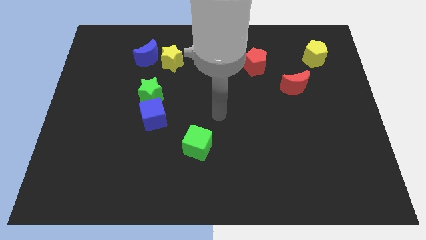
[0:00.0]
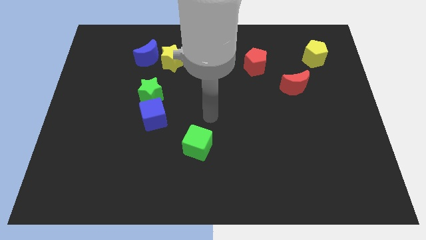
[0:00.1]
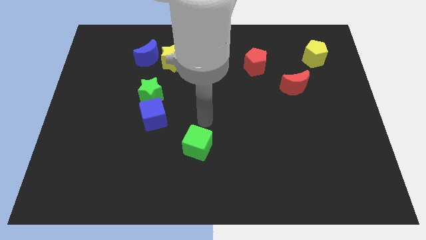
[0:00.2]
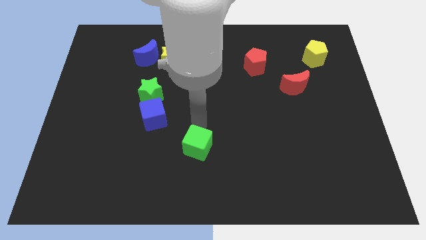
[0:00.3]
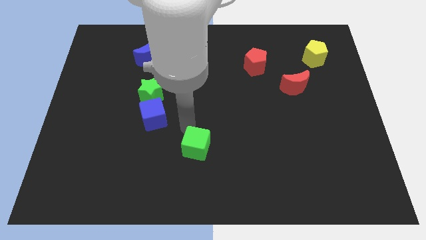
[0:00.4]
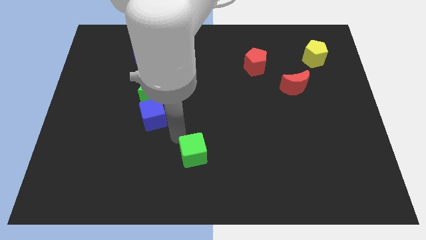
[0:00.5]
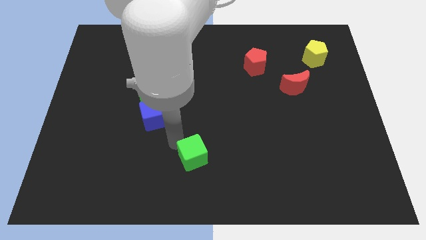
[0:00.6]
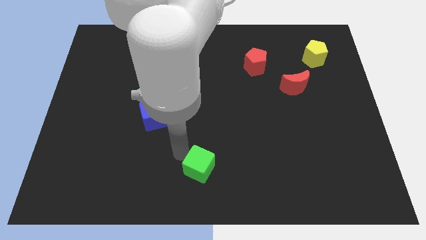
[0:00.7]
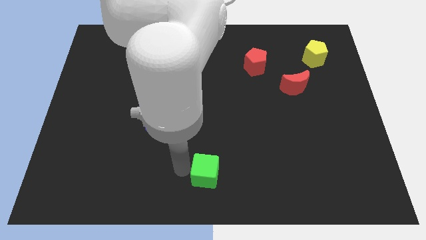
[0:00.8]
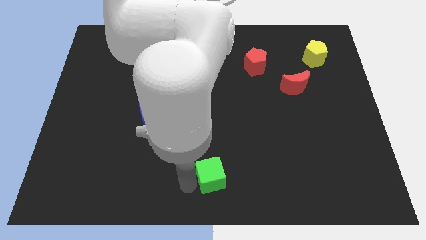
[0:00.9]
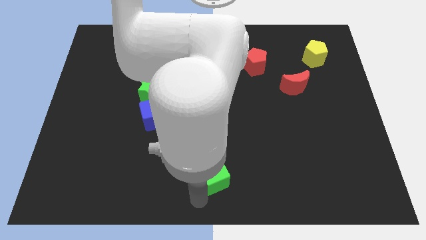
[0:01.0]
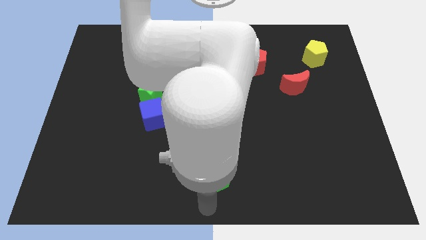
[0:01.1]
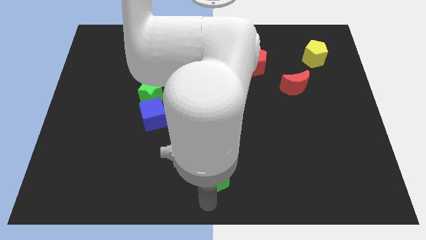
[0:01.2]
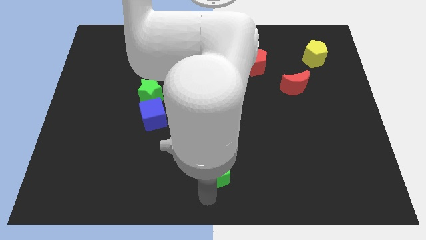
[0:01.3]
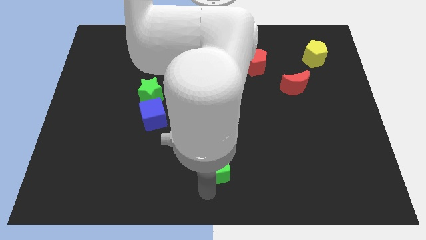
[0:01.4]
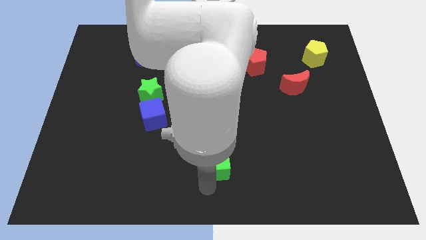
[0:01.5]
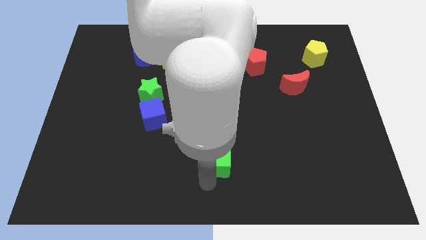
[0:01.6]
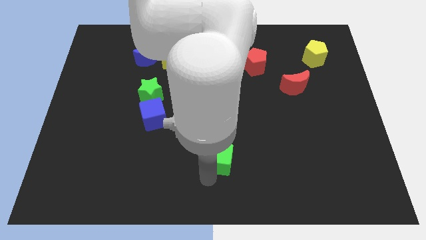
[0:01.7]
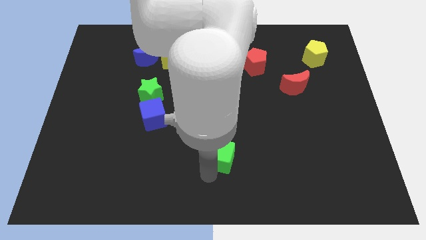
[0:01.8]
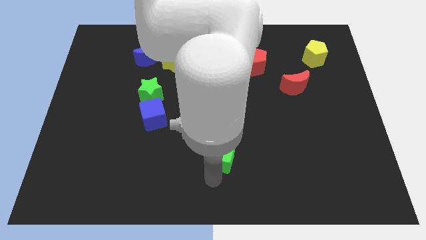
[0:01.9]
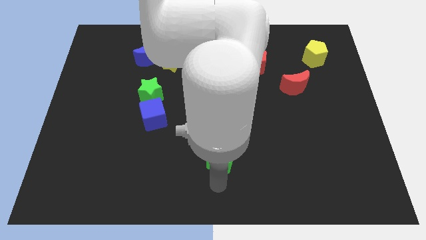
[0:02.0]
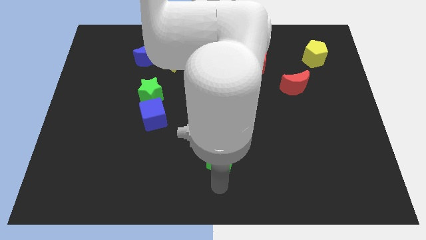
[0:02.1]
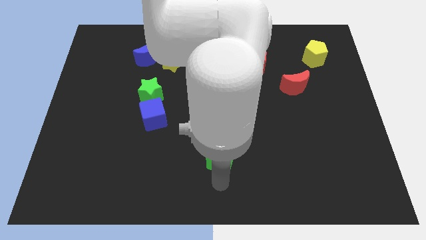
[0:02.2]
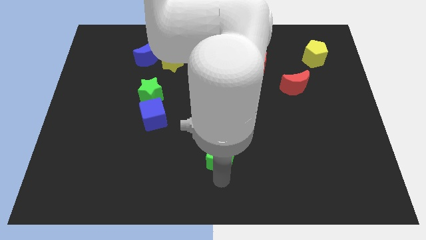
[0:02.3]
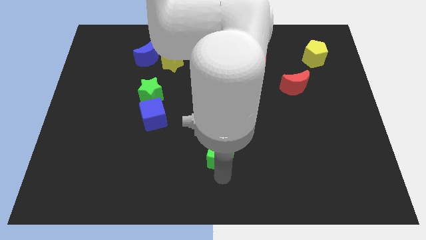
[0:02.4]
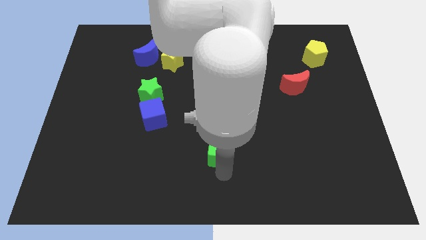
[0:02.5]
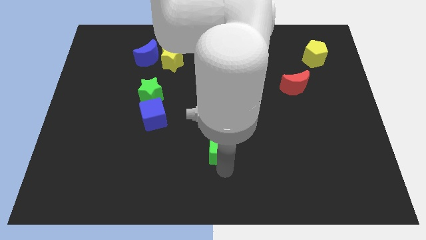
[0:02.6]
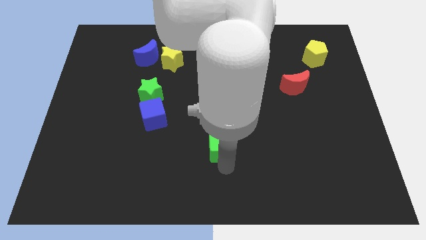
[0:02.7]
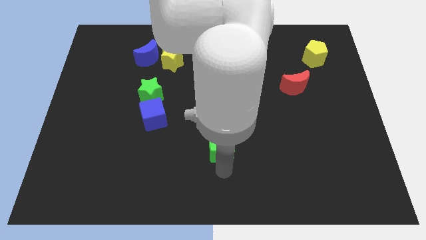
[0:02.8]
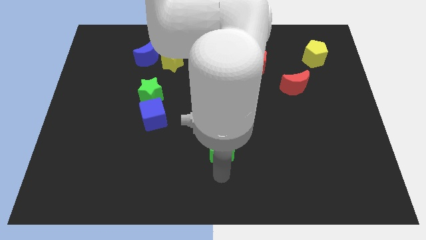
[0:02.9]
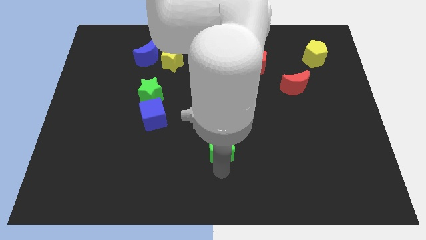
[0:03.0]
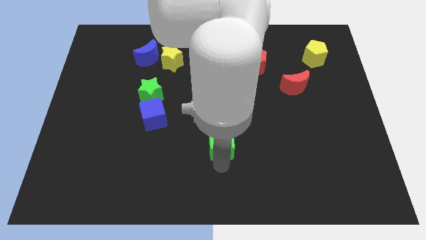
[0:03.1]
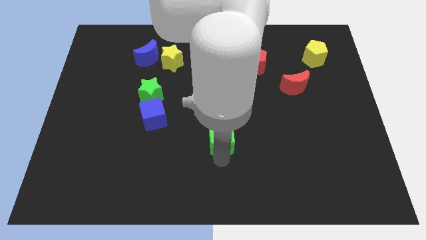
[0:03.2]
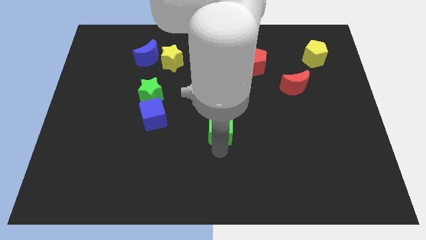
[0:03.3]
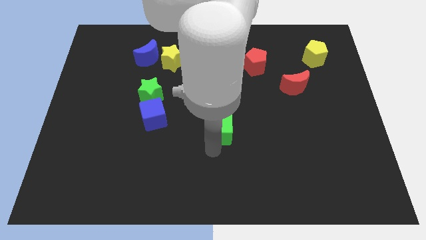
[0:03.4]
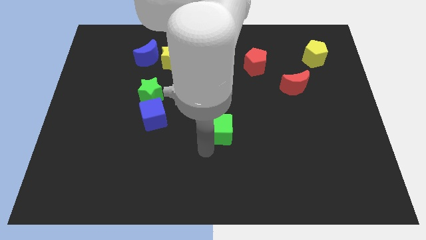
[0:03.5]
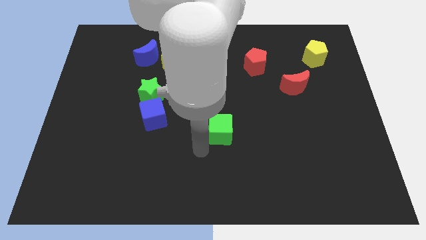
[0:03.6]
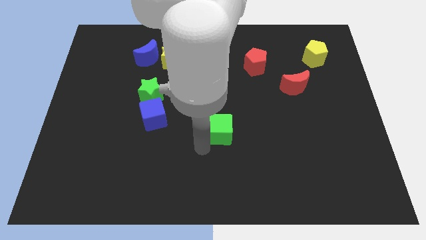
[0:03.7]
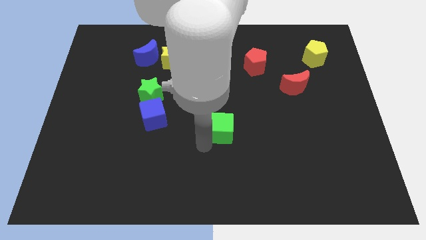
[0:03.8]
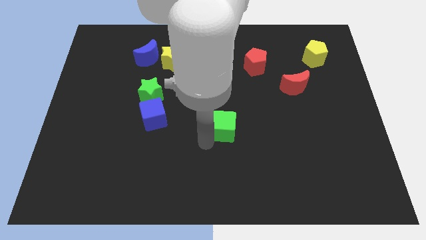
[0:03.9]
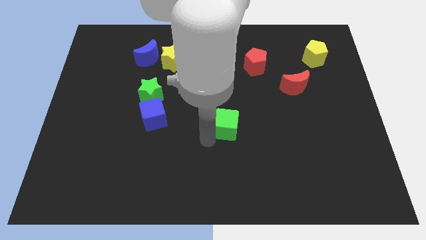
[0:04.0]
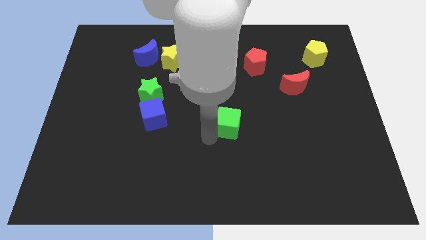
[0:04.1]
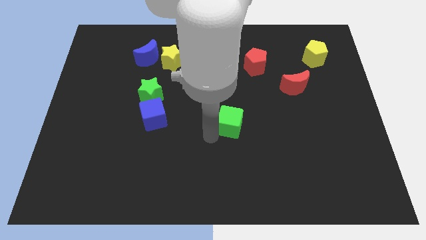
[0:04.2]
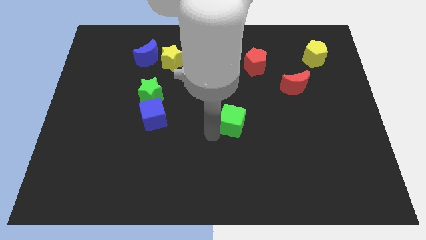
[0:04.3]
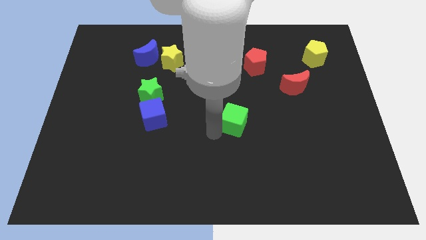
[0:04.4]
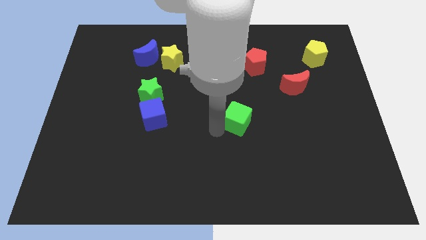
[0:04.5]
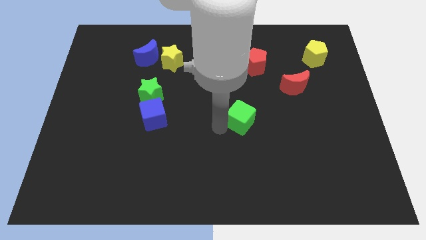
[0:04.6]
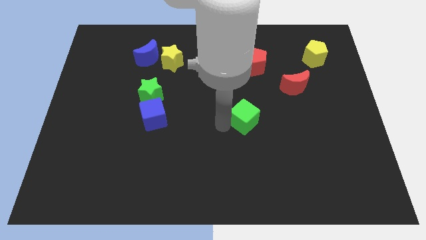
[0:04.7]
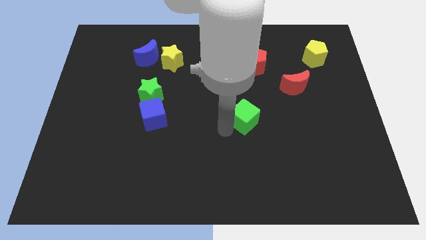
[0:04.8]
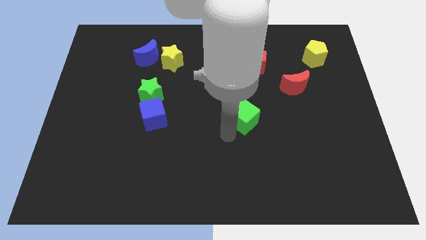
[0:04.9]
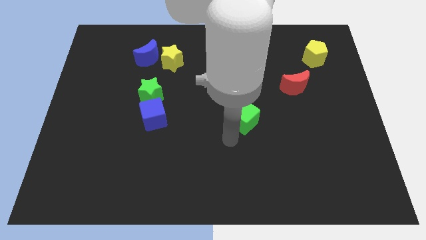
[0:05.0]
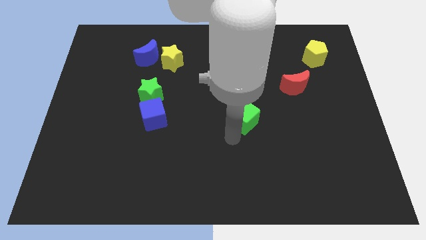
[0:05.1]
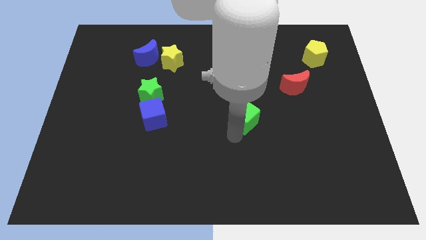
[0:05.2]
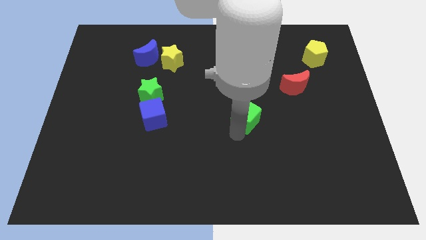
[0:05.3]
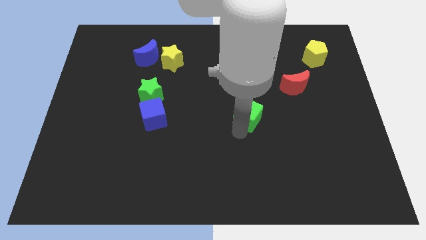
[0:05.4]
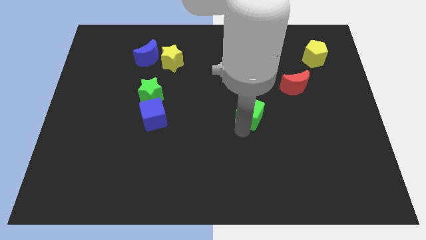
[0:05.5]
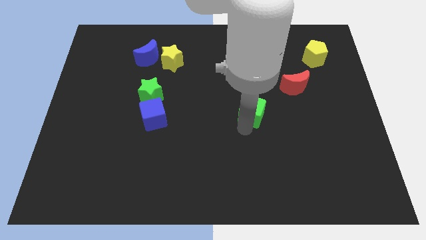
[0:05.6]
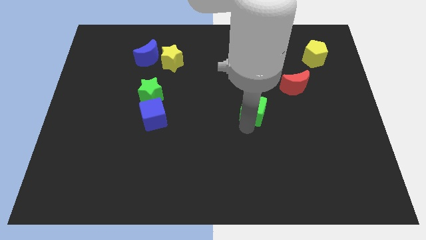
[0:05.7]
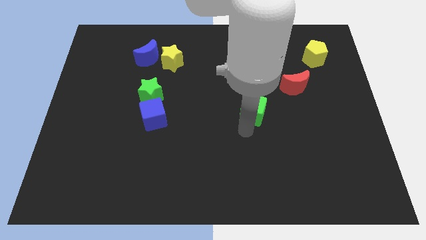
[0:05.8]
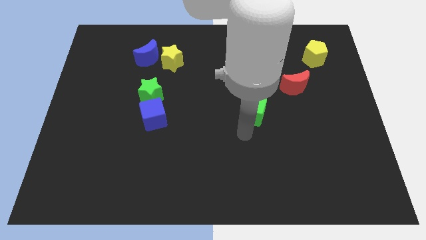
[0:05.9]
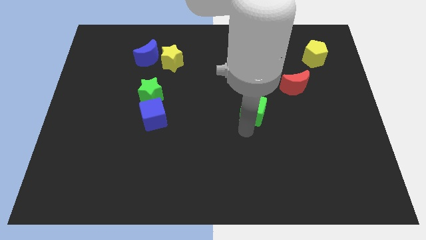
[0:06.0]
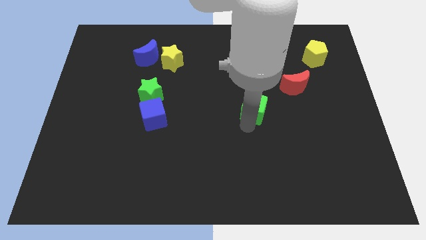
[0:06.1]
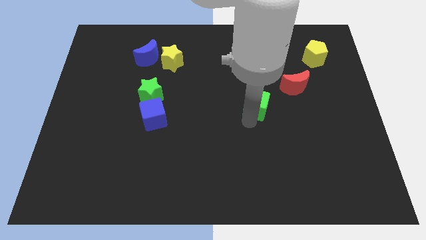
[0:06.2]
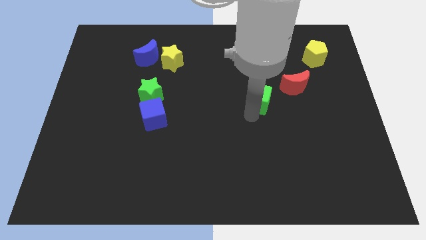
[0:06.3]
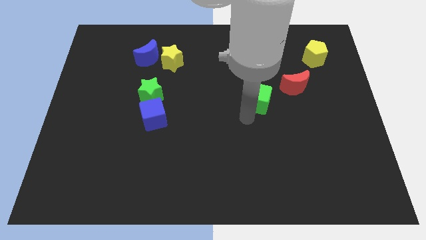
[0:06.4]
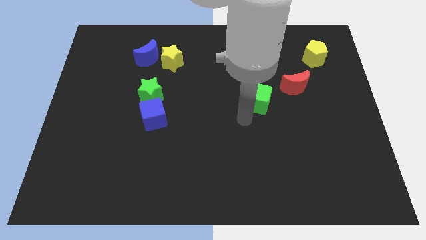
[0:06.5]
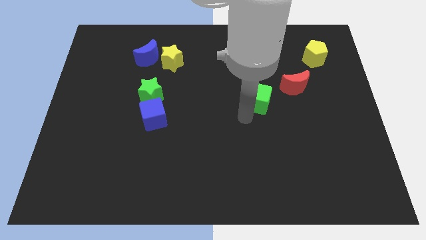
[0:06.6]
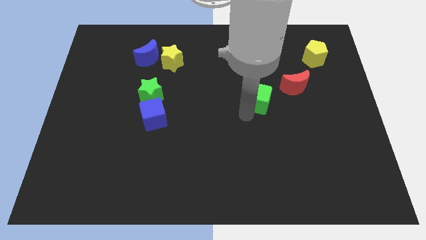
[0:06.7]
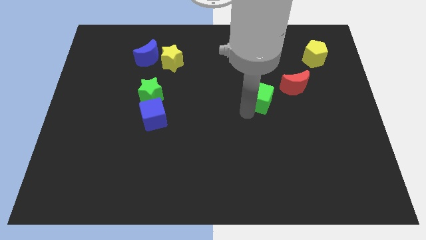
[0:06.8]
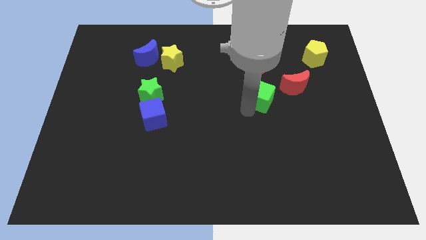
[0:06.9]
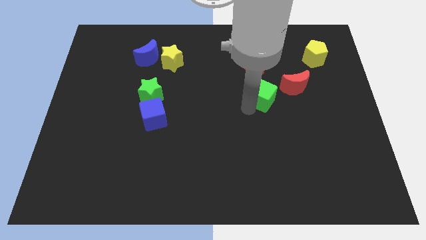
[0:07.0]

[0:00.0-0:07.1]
move the green cube up and to the right diagonally

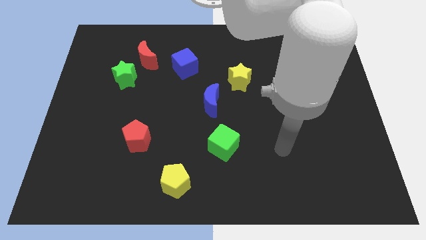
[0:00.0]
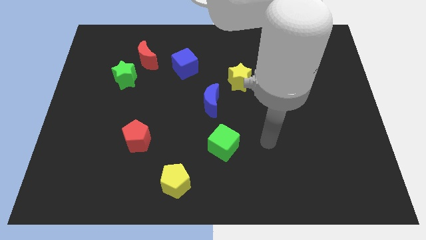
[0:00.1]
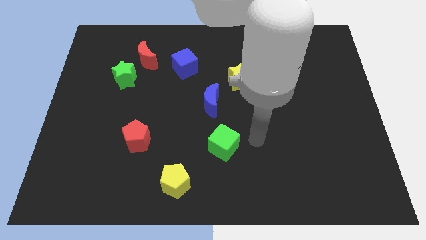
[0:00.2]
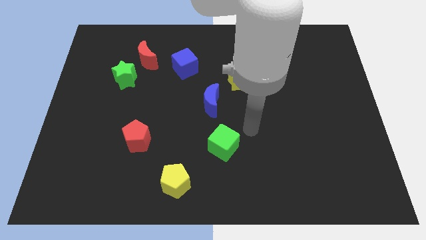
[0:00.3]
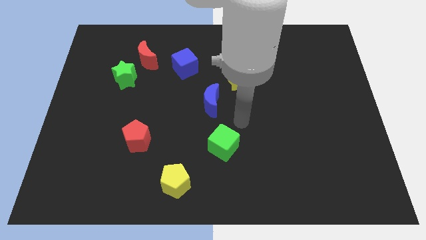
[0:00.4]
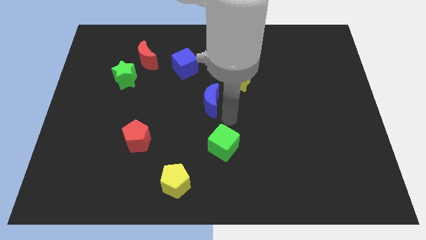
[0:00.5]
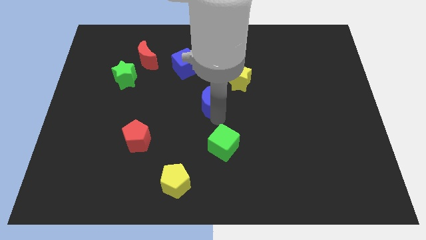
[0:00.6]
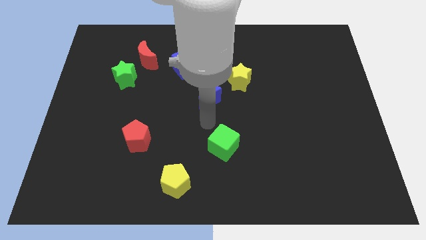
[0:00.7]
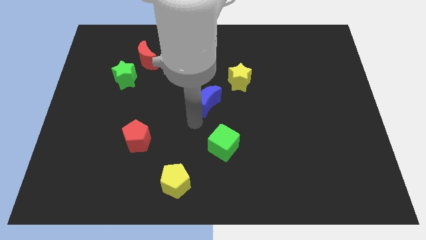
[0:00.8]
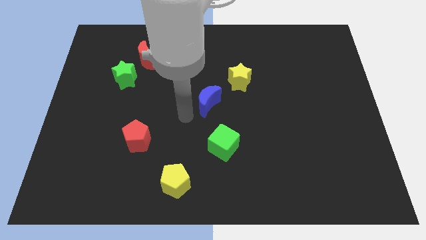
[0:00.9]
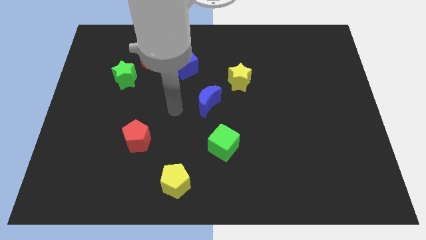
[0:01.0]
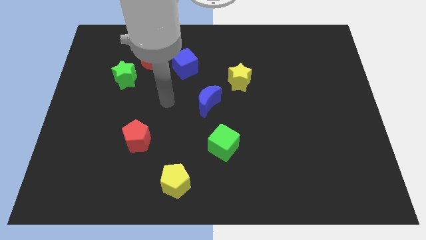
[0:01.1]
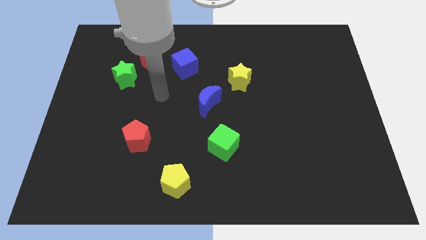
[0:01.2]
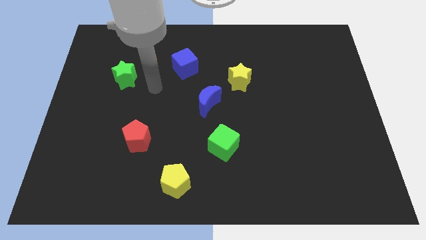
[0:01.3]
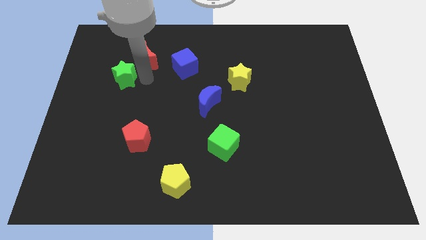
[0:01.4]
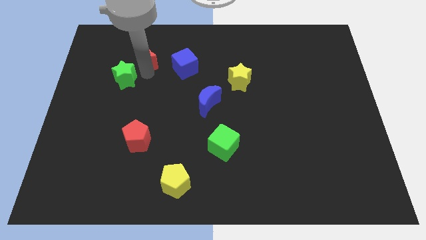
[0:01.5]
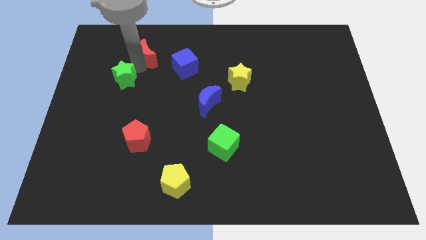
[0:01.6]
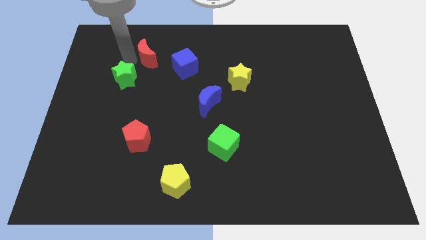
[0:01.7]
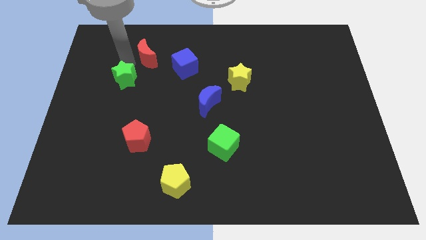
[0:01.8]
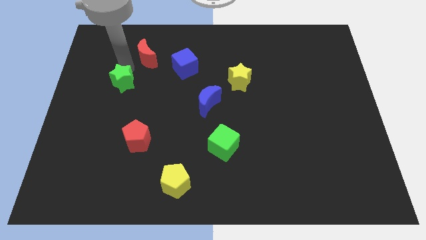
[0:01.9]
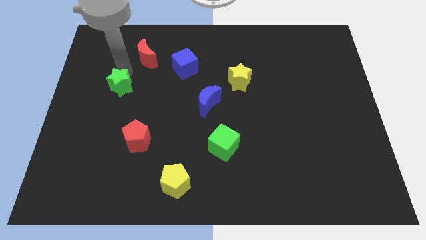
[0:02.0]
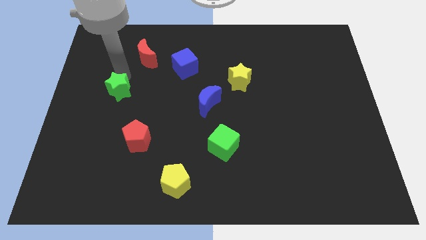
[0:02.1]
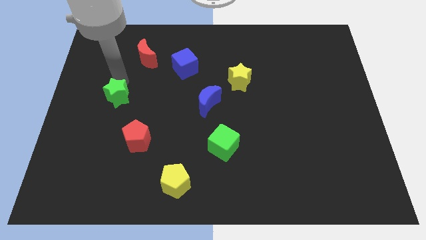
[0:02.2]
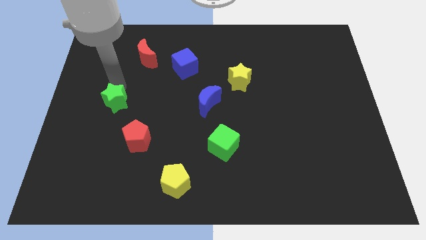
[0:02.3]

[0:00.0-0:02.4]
move the green star down a little bit
